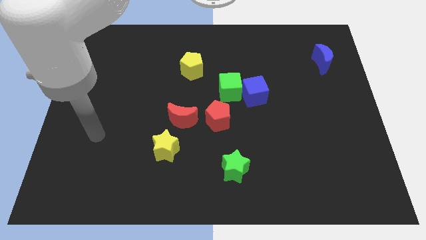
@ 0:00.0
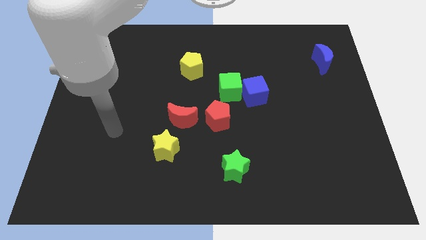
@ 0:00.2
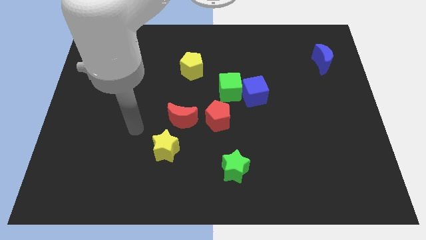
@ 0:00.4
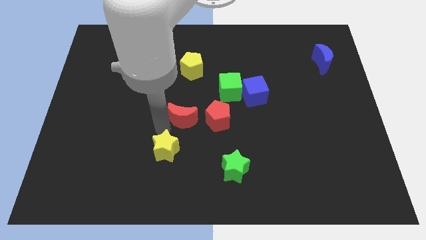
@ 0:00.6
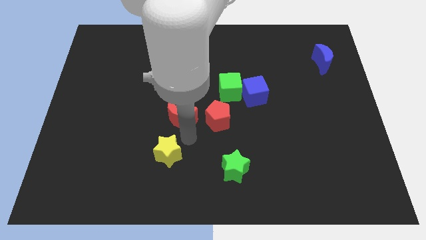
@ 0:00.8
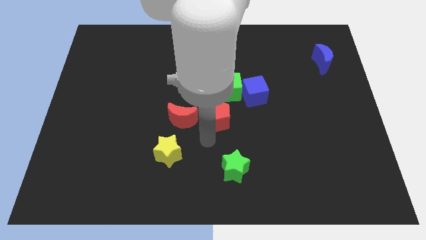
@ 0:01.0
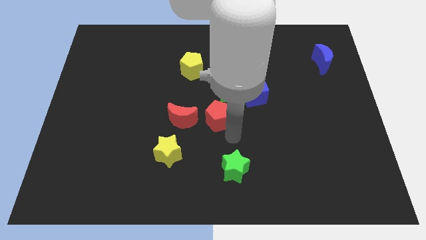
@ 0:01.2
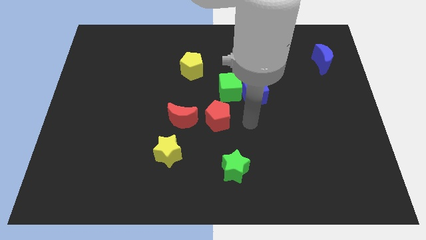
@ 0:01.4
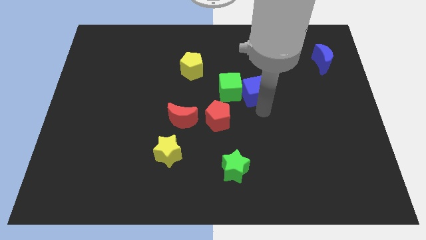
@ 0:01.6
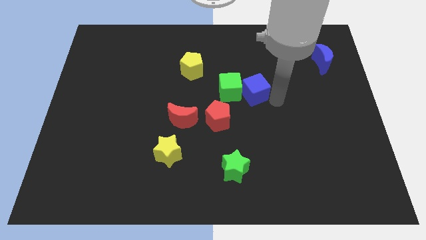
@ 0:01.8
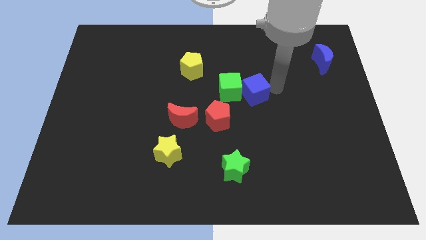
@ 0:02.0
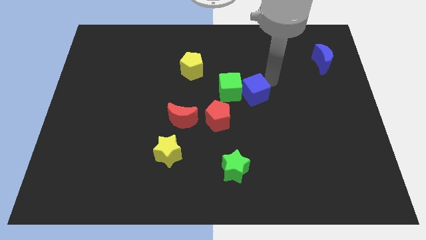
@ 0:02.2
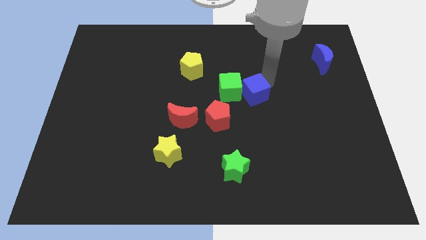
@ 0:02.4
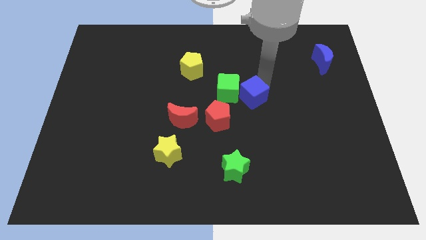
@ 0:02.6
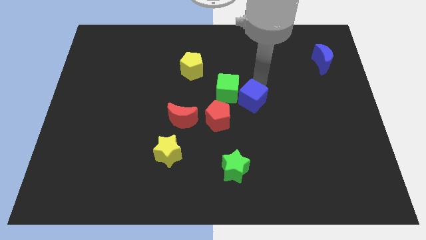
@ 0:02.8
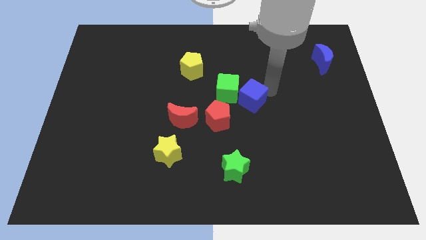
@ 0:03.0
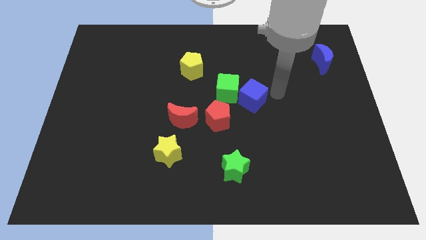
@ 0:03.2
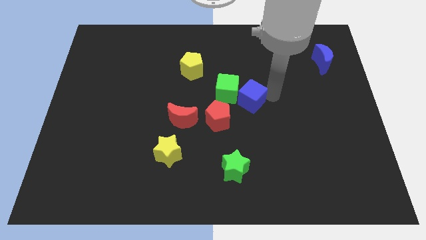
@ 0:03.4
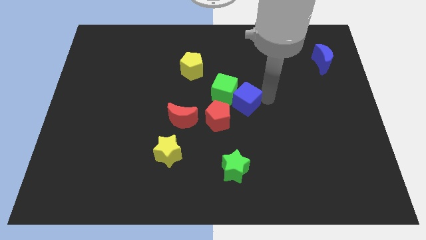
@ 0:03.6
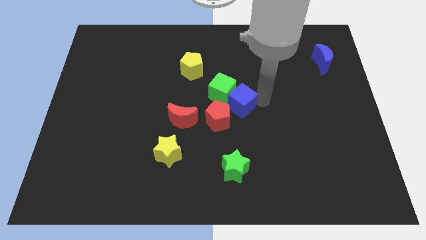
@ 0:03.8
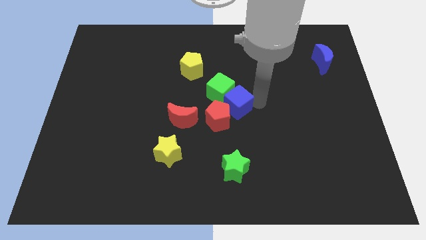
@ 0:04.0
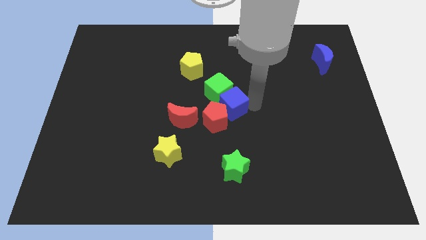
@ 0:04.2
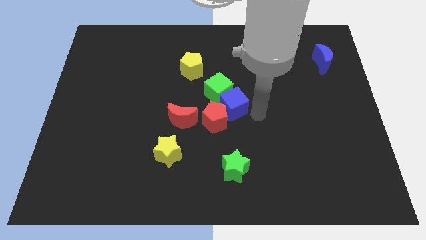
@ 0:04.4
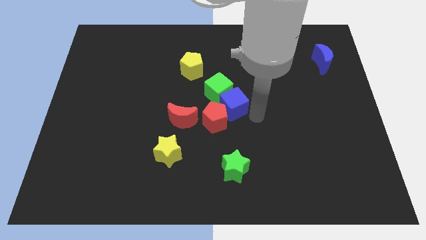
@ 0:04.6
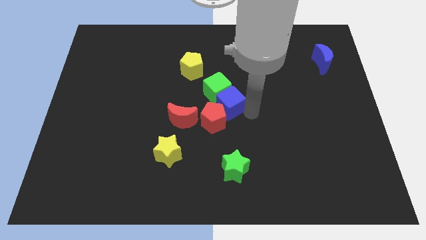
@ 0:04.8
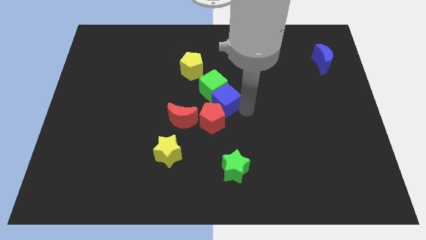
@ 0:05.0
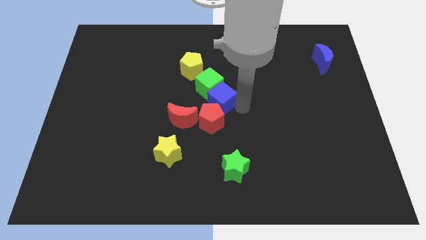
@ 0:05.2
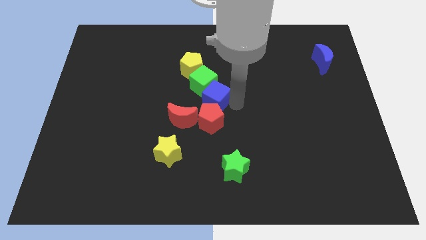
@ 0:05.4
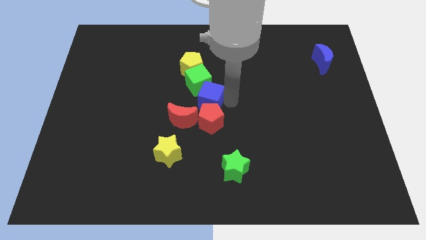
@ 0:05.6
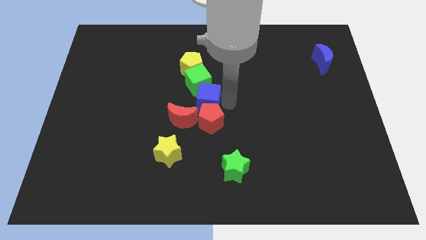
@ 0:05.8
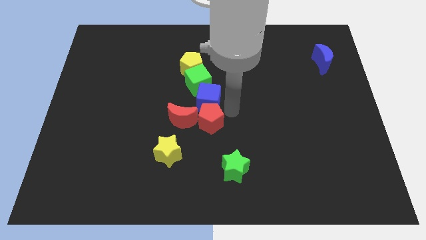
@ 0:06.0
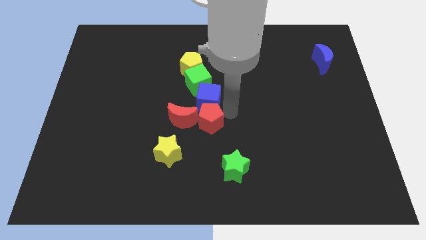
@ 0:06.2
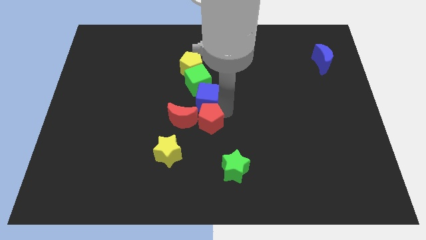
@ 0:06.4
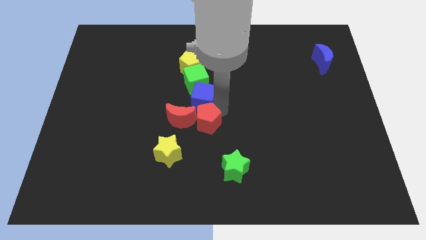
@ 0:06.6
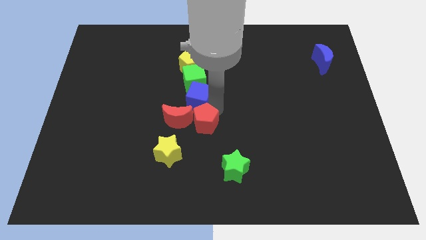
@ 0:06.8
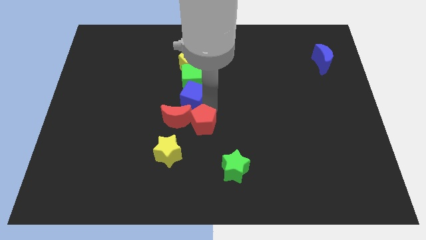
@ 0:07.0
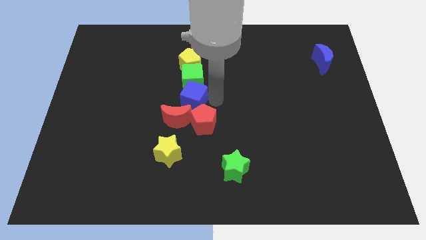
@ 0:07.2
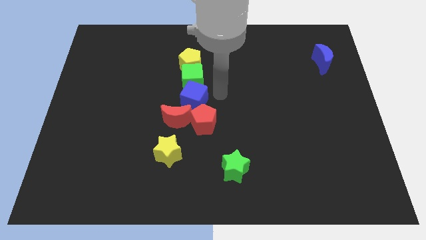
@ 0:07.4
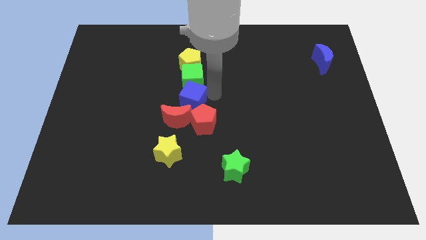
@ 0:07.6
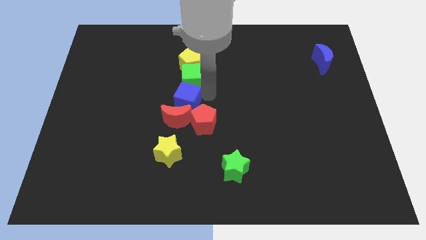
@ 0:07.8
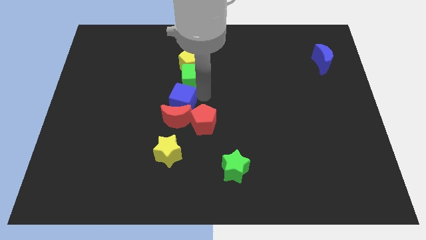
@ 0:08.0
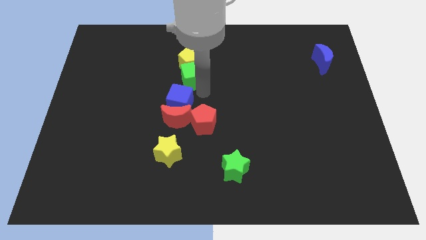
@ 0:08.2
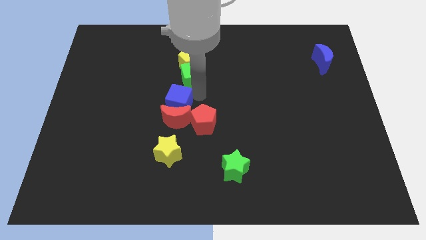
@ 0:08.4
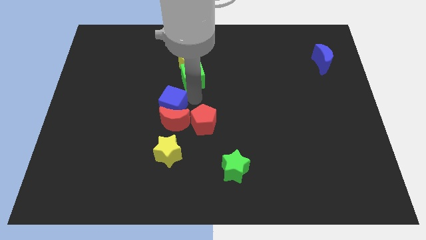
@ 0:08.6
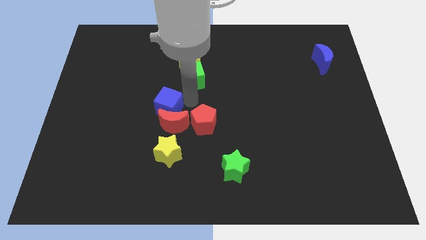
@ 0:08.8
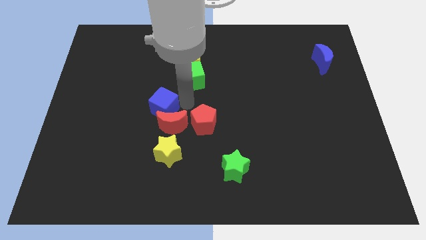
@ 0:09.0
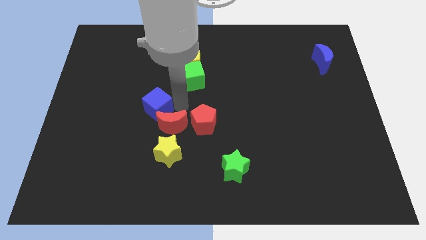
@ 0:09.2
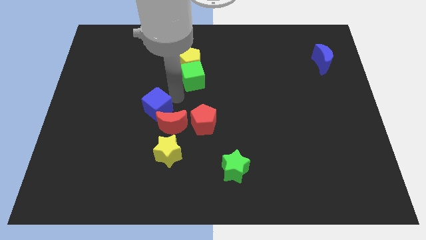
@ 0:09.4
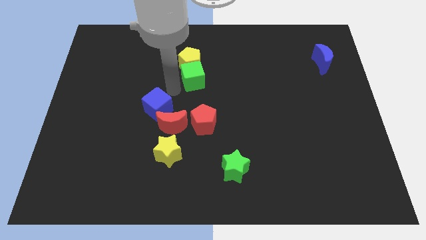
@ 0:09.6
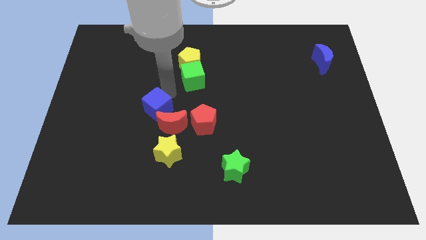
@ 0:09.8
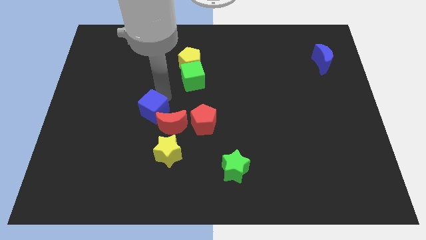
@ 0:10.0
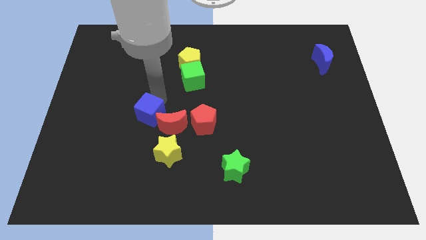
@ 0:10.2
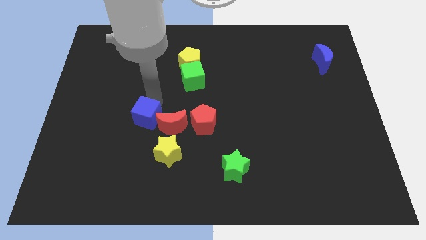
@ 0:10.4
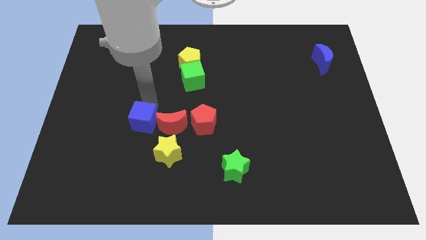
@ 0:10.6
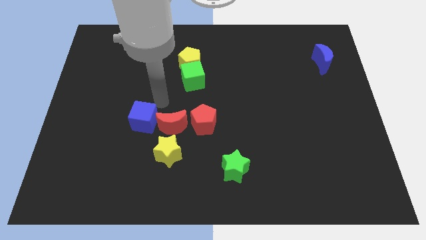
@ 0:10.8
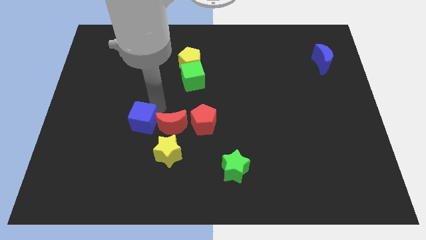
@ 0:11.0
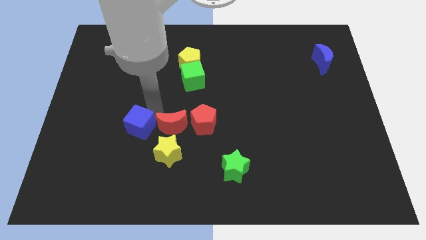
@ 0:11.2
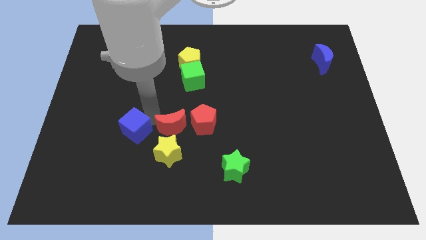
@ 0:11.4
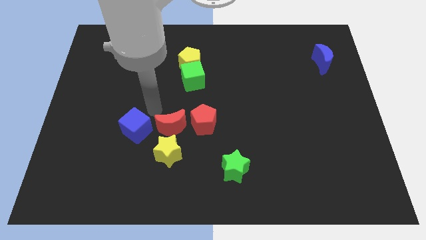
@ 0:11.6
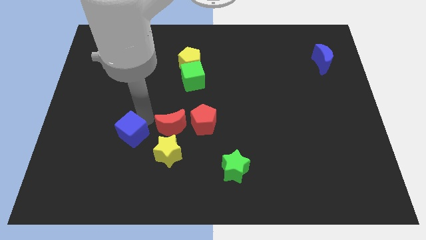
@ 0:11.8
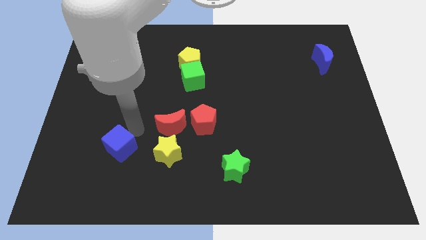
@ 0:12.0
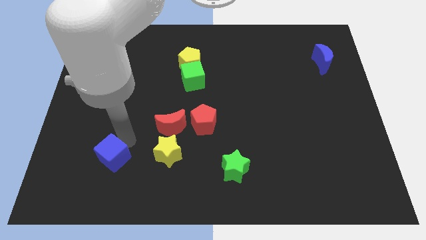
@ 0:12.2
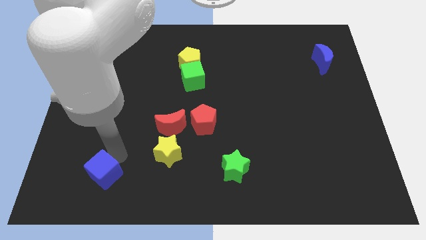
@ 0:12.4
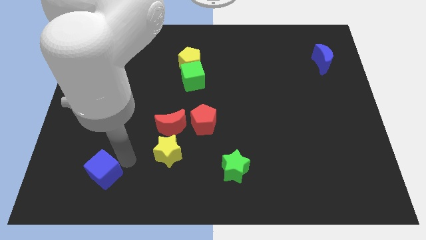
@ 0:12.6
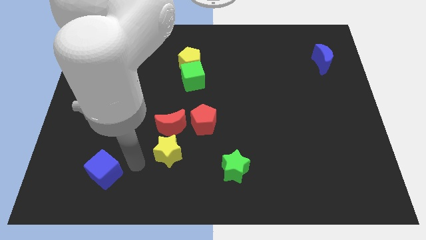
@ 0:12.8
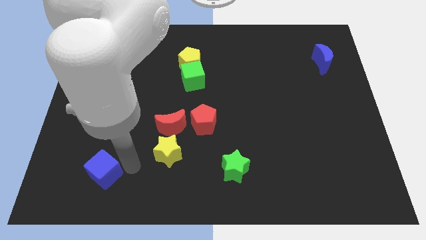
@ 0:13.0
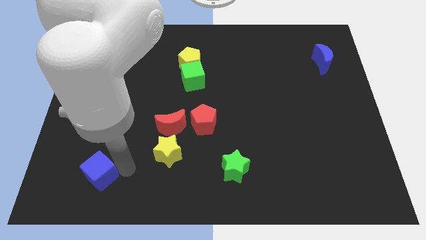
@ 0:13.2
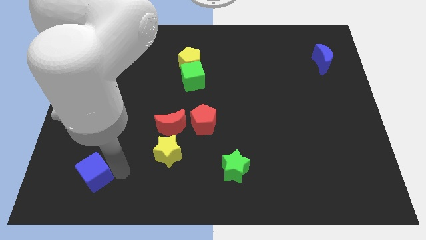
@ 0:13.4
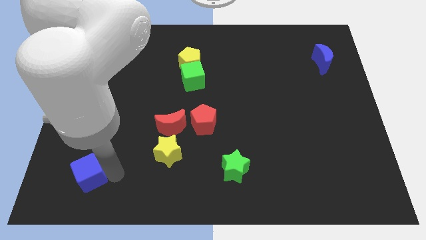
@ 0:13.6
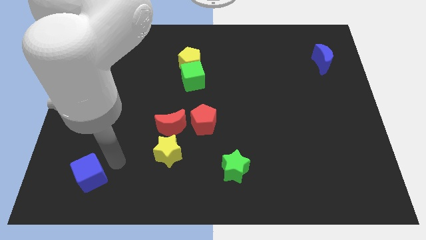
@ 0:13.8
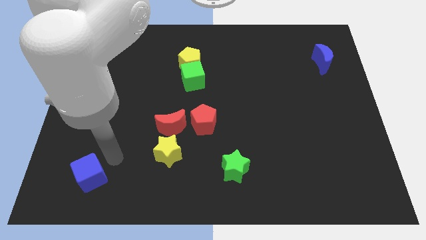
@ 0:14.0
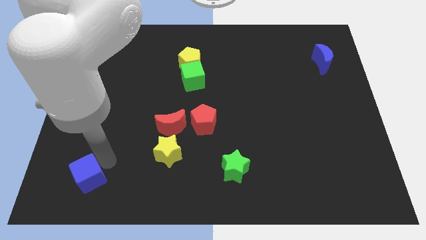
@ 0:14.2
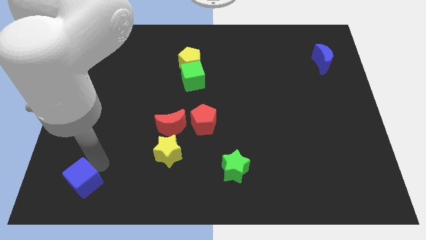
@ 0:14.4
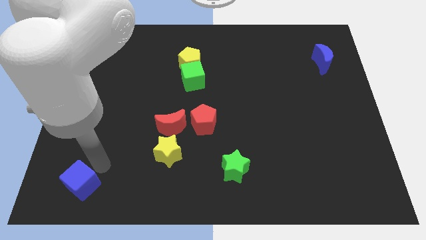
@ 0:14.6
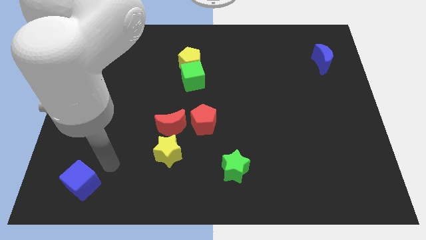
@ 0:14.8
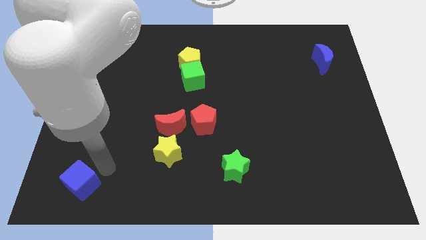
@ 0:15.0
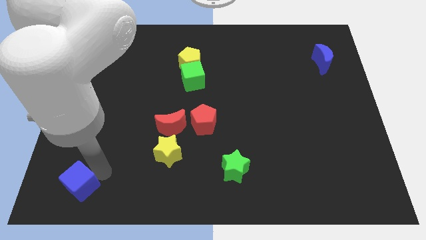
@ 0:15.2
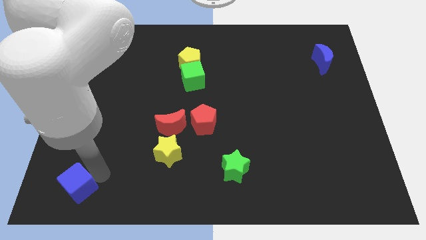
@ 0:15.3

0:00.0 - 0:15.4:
slide the blue cube to the bottom left
